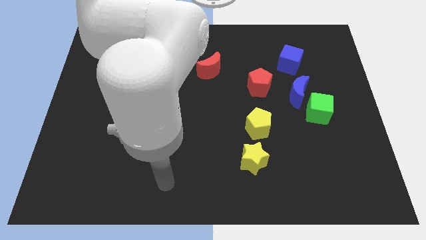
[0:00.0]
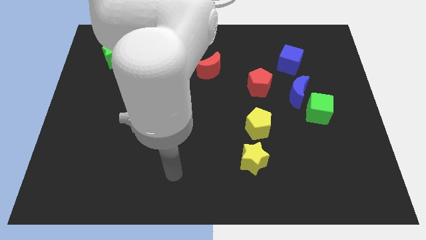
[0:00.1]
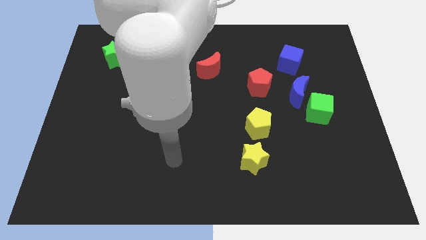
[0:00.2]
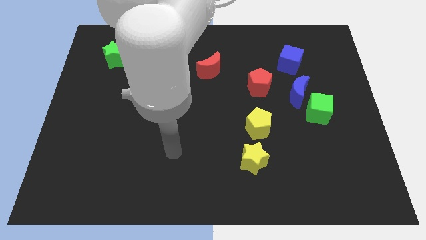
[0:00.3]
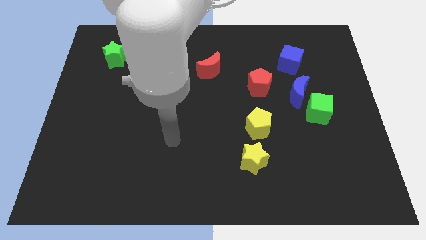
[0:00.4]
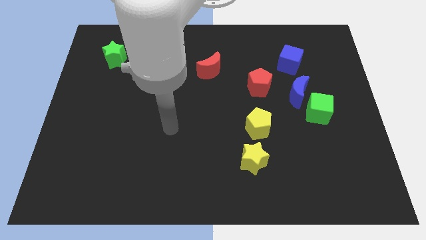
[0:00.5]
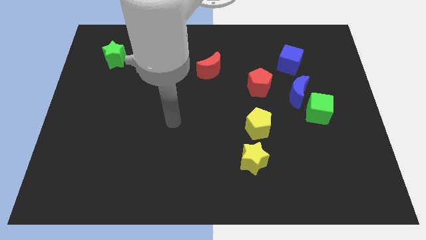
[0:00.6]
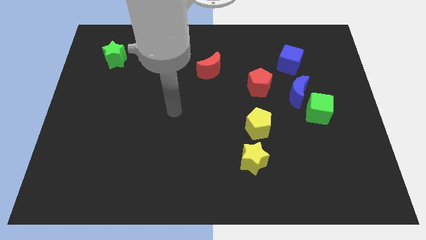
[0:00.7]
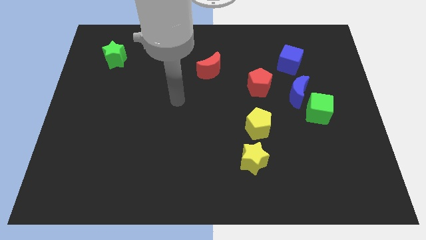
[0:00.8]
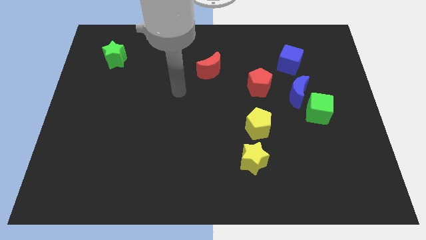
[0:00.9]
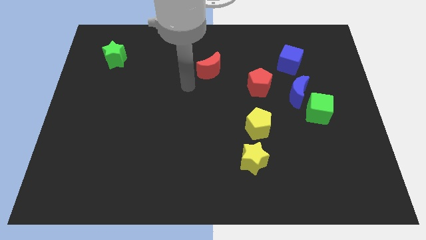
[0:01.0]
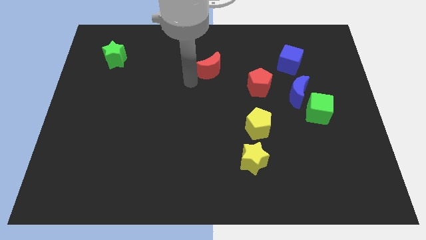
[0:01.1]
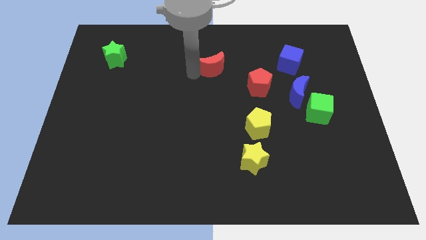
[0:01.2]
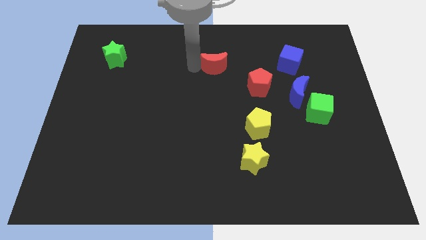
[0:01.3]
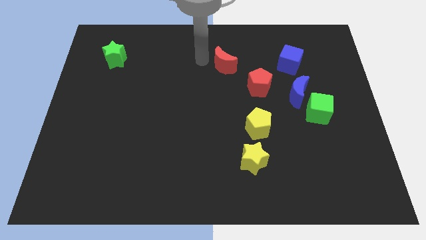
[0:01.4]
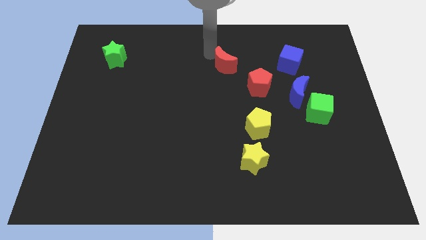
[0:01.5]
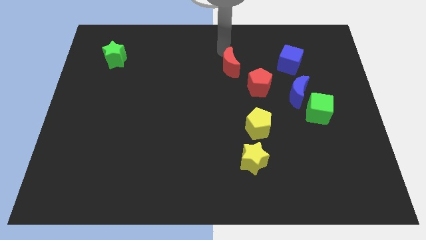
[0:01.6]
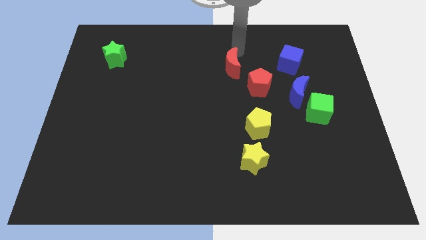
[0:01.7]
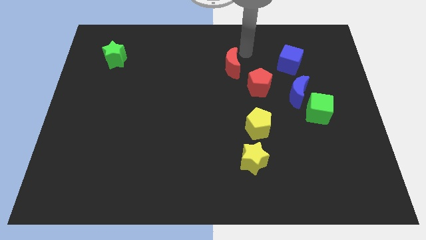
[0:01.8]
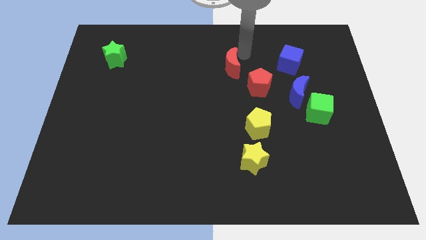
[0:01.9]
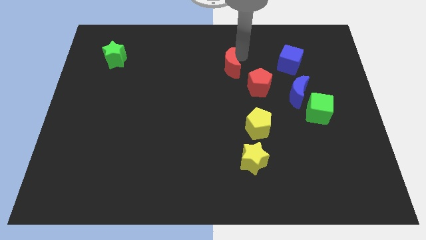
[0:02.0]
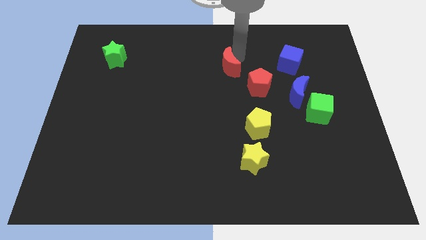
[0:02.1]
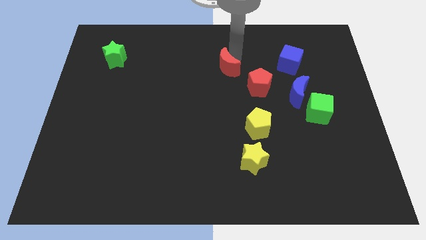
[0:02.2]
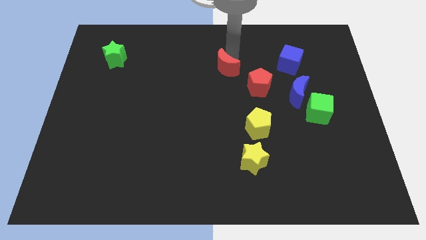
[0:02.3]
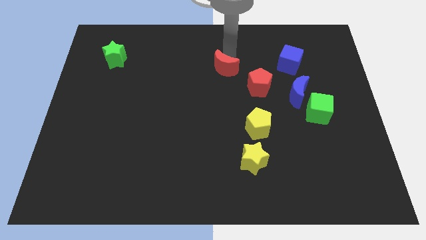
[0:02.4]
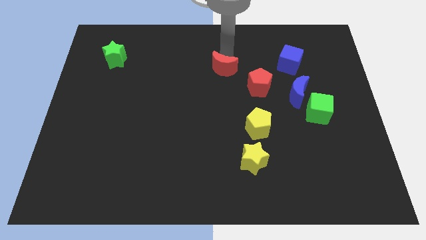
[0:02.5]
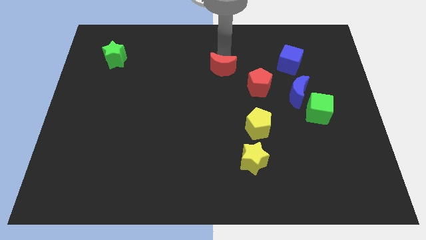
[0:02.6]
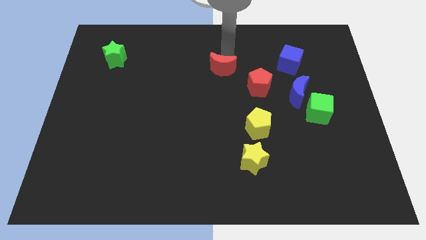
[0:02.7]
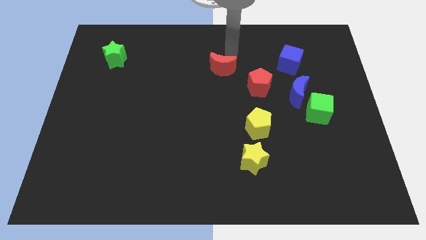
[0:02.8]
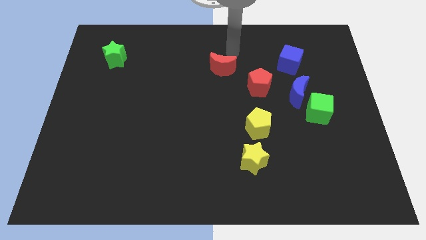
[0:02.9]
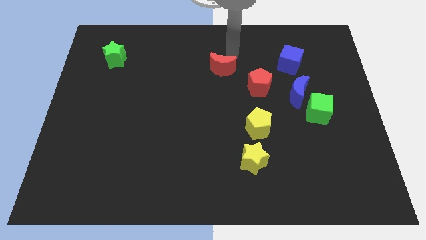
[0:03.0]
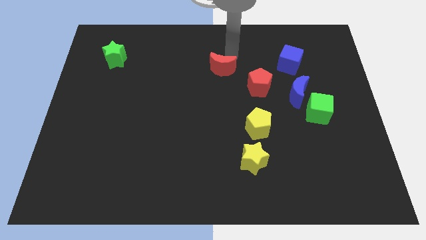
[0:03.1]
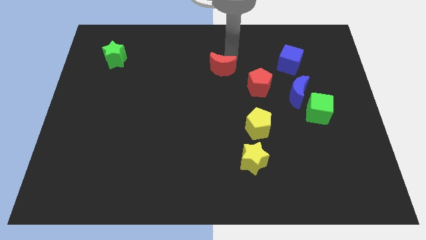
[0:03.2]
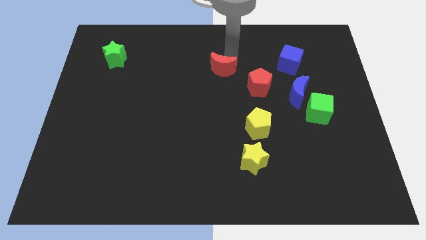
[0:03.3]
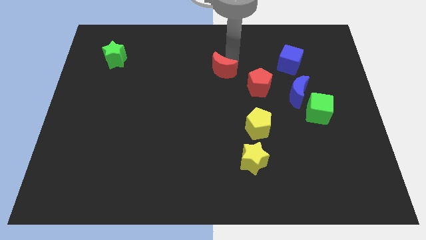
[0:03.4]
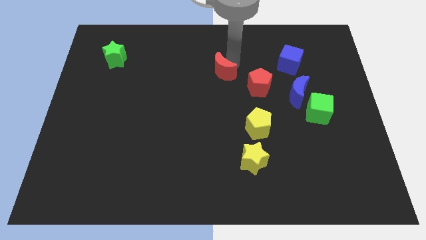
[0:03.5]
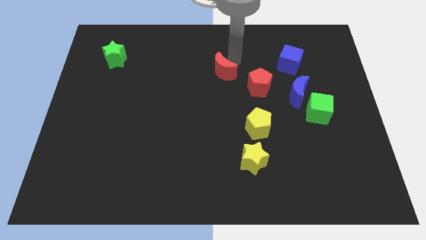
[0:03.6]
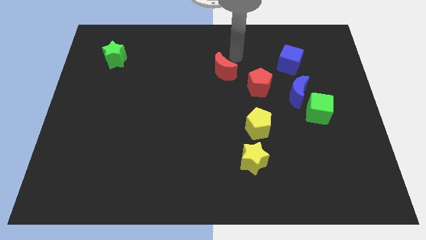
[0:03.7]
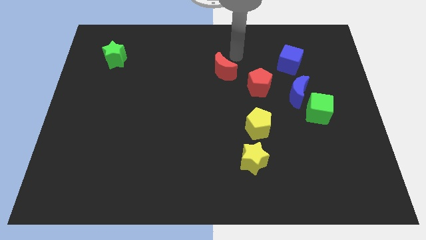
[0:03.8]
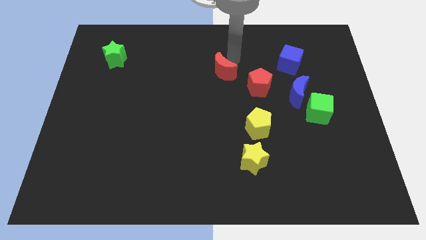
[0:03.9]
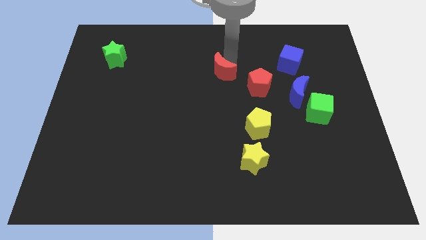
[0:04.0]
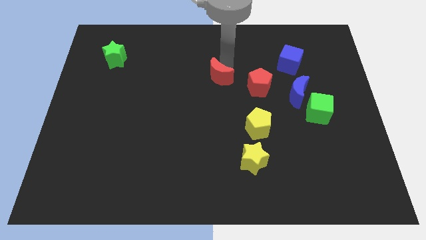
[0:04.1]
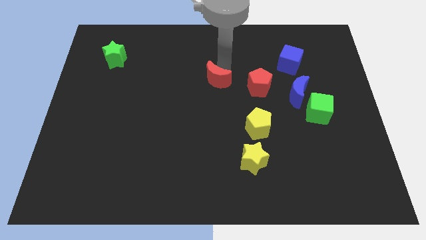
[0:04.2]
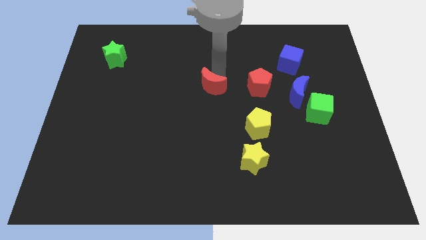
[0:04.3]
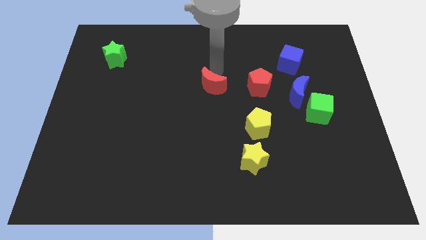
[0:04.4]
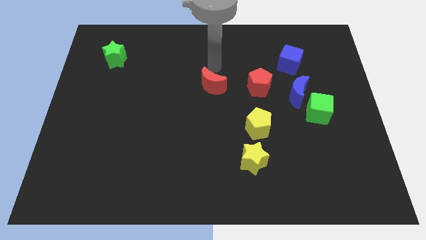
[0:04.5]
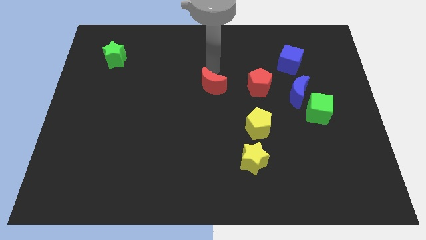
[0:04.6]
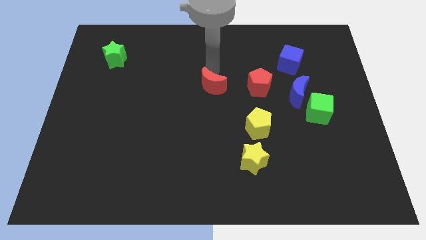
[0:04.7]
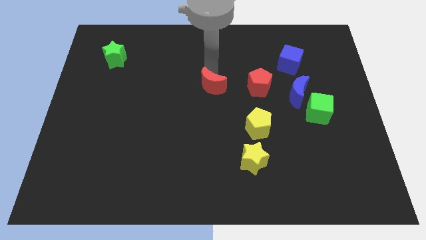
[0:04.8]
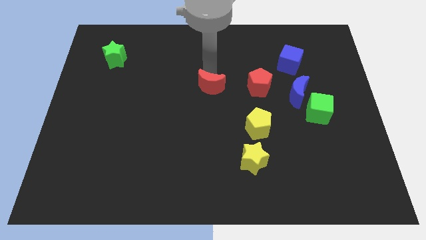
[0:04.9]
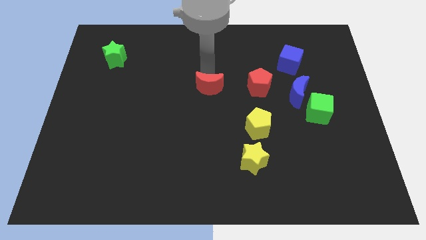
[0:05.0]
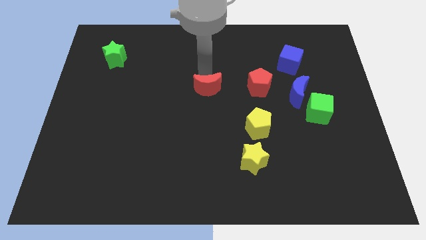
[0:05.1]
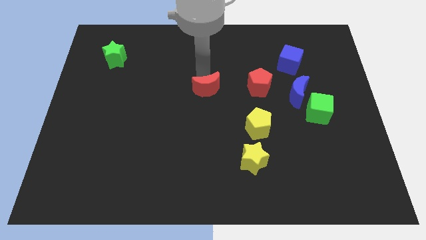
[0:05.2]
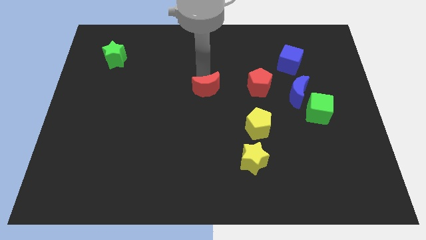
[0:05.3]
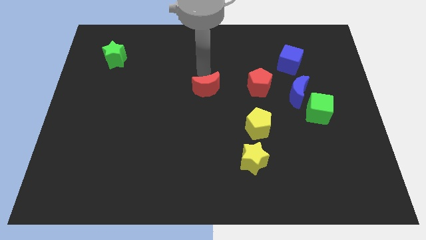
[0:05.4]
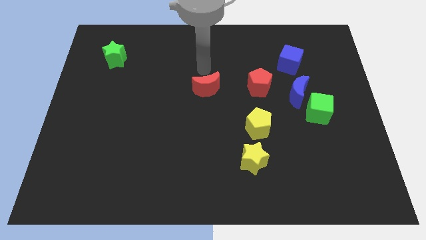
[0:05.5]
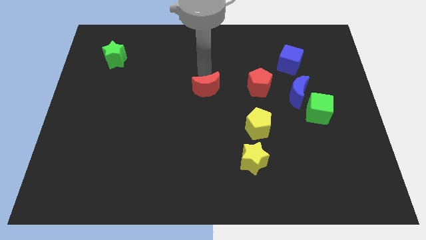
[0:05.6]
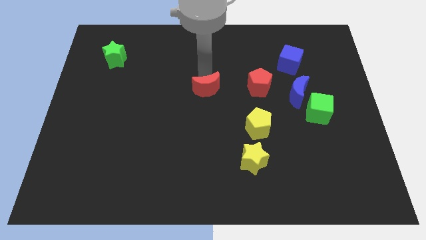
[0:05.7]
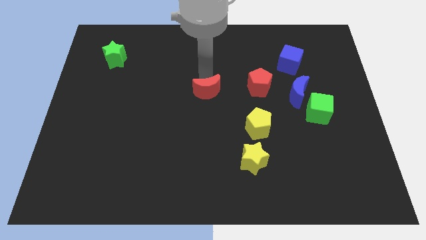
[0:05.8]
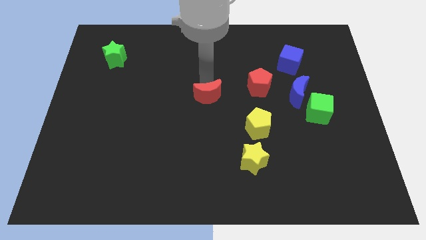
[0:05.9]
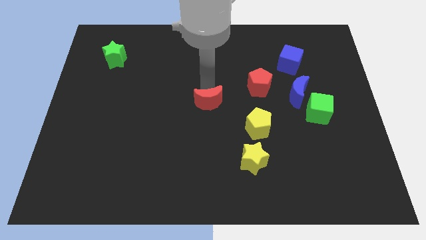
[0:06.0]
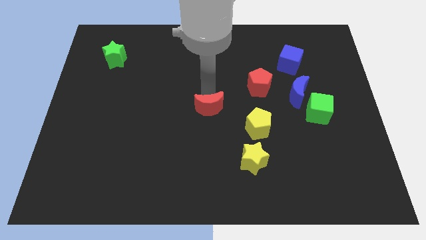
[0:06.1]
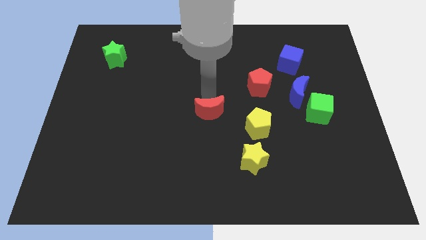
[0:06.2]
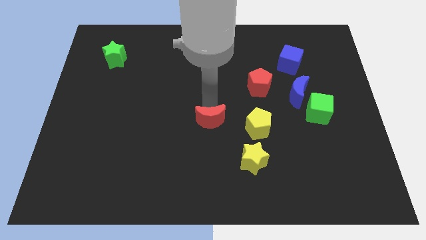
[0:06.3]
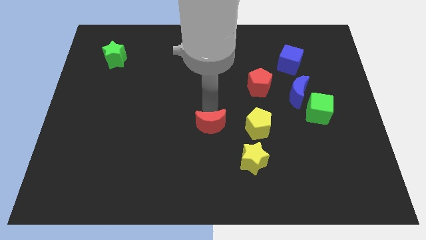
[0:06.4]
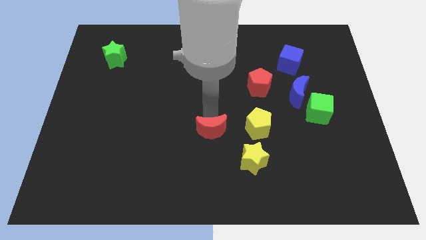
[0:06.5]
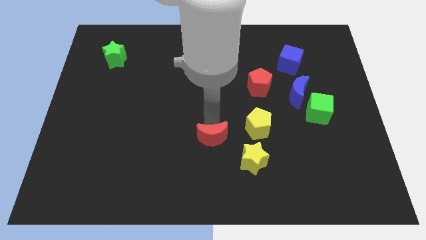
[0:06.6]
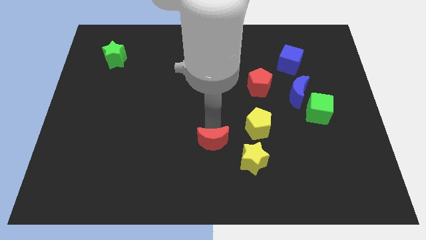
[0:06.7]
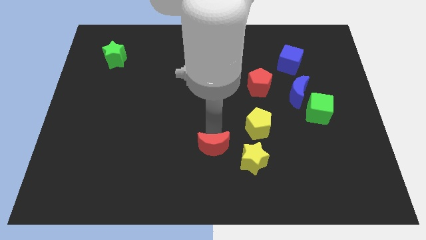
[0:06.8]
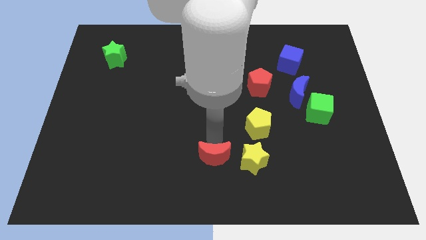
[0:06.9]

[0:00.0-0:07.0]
slide the red moon to the bottom
